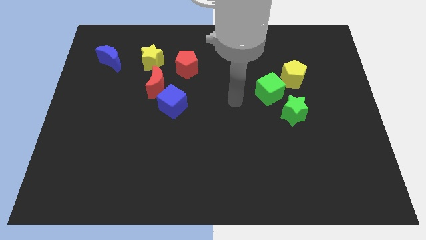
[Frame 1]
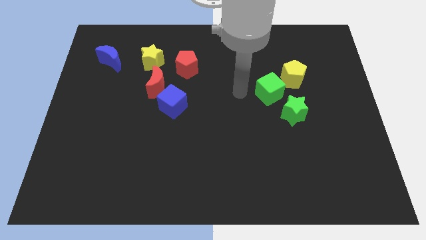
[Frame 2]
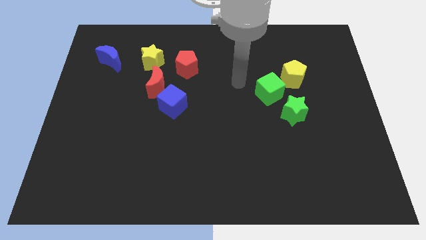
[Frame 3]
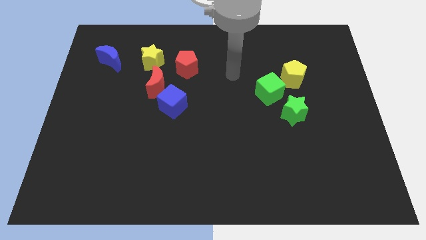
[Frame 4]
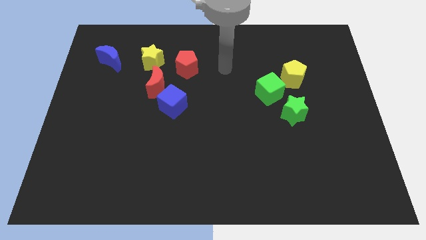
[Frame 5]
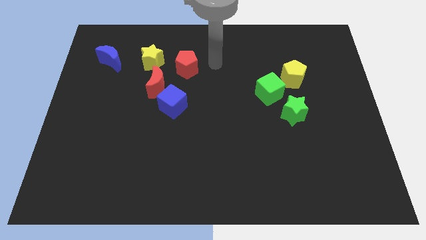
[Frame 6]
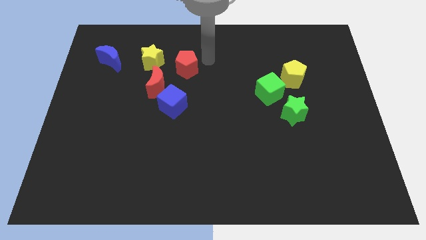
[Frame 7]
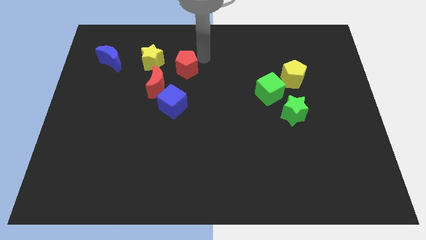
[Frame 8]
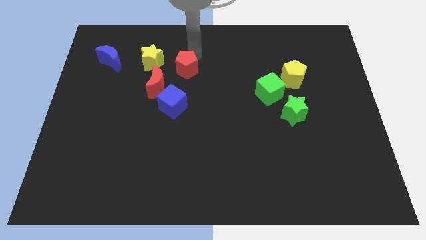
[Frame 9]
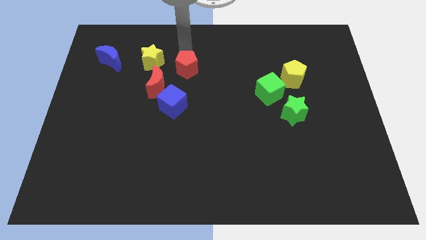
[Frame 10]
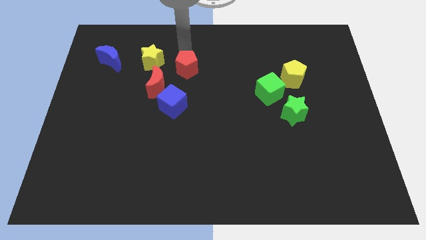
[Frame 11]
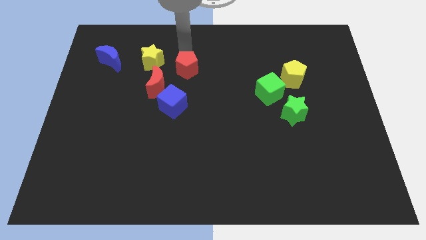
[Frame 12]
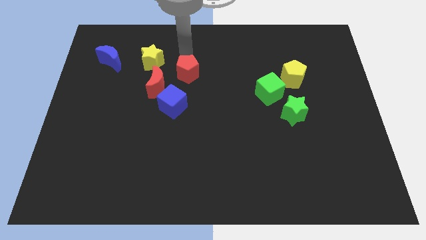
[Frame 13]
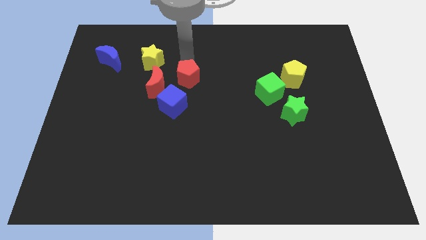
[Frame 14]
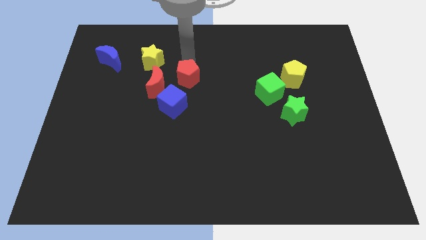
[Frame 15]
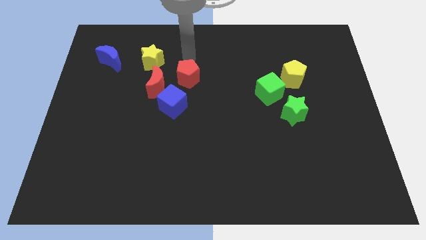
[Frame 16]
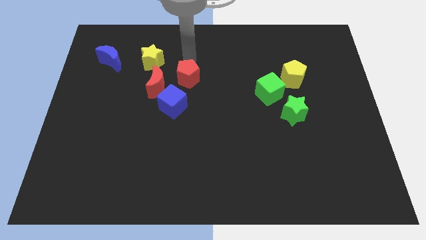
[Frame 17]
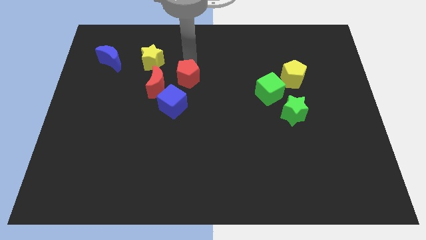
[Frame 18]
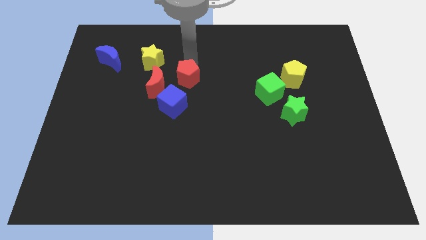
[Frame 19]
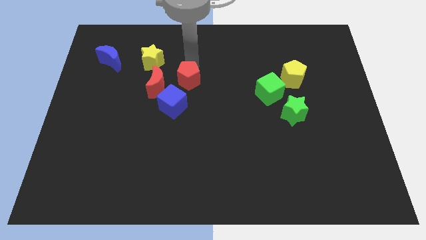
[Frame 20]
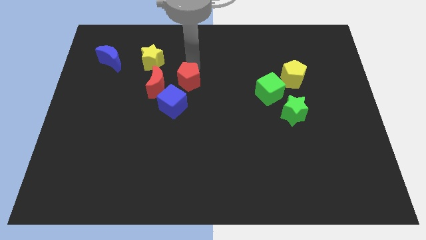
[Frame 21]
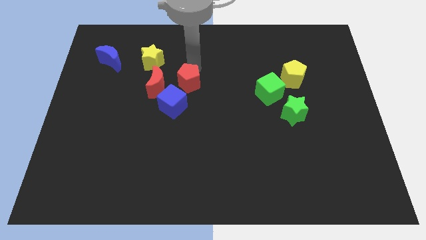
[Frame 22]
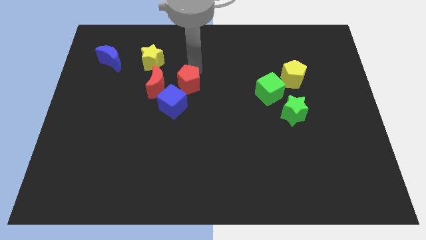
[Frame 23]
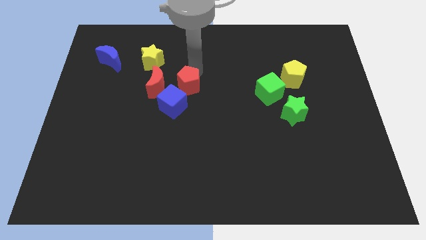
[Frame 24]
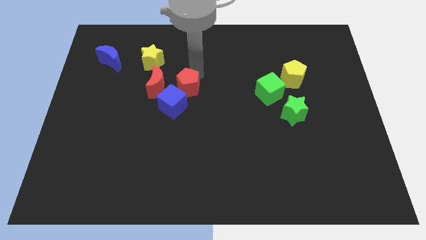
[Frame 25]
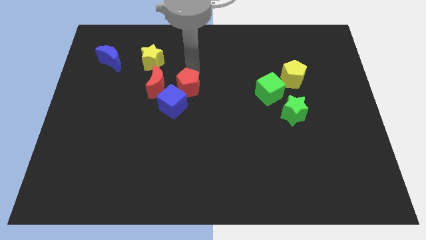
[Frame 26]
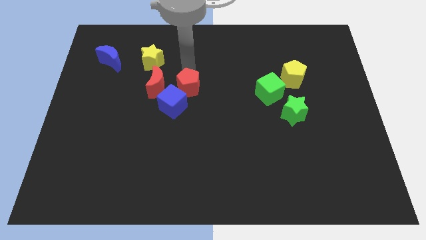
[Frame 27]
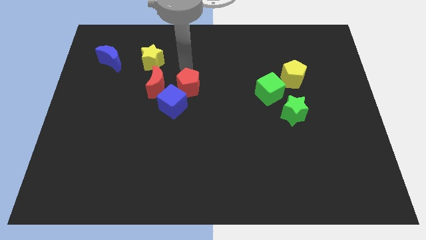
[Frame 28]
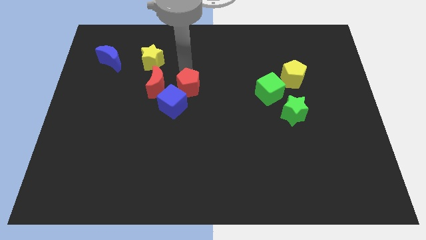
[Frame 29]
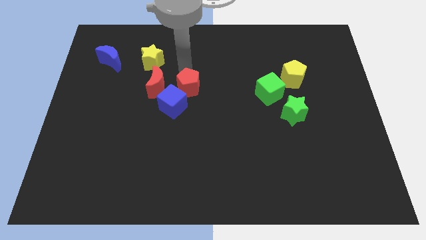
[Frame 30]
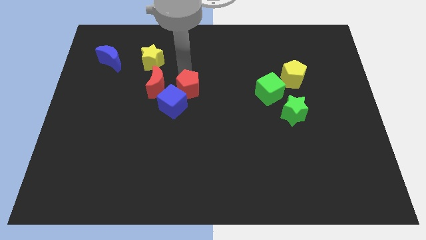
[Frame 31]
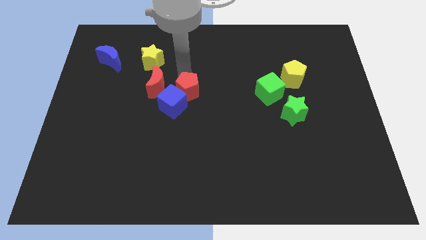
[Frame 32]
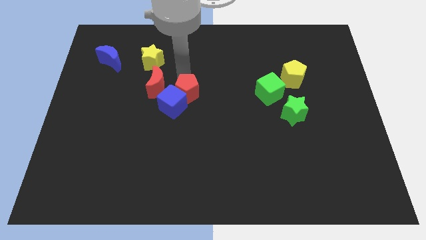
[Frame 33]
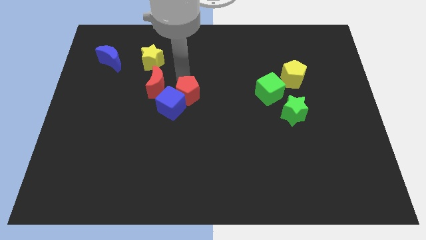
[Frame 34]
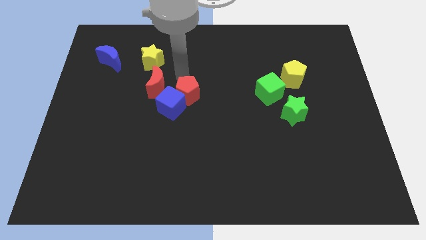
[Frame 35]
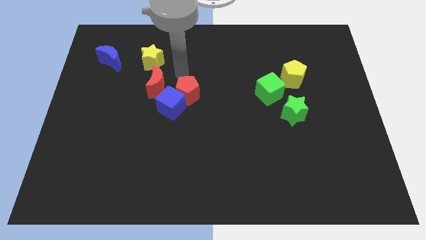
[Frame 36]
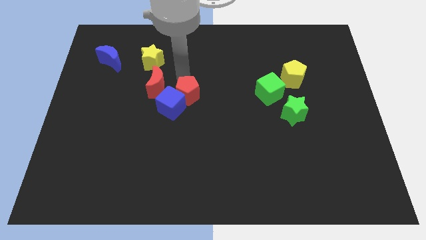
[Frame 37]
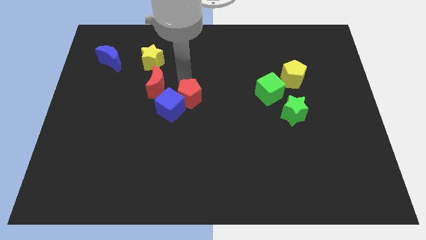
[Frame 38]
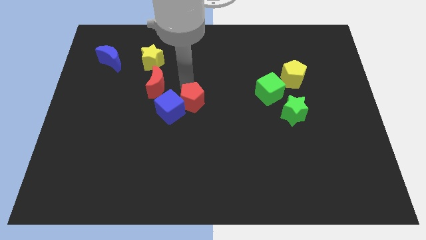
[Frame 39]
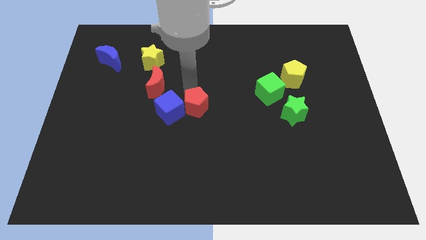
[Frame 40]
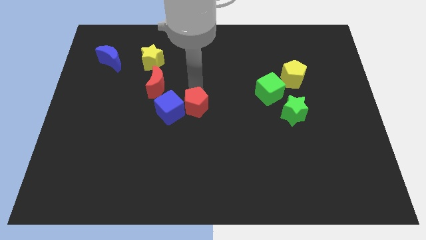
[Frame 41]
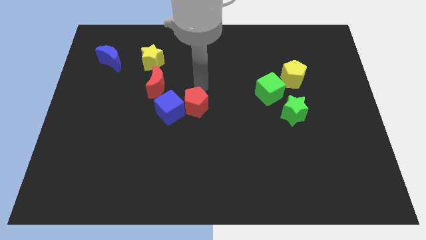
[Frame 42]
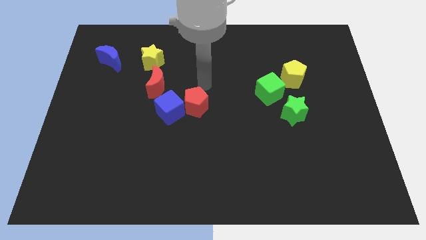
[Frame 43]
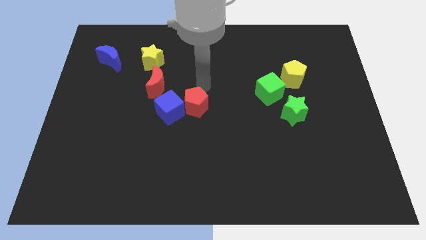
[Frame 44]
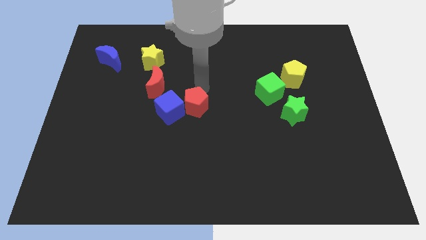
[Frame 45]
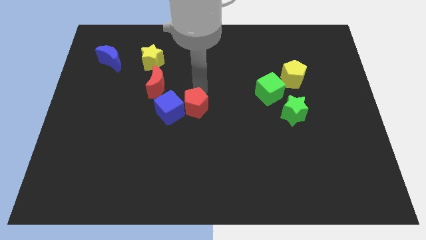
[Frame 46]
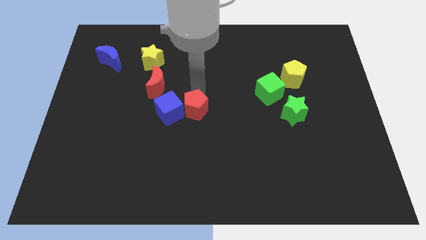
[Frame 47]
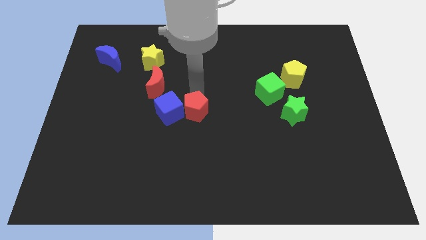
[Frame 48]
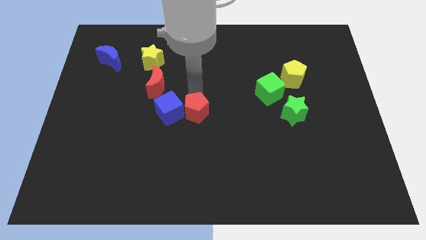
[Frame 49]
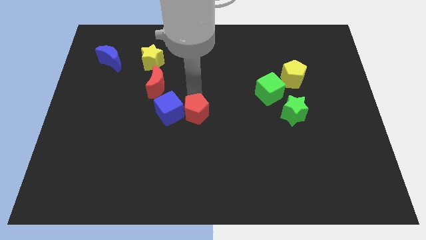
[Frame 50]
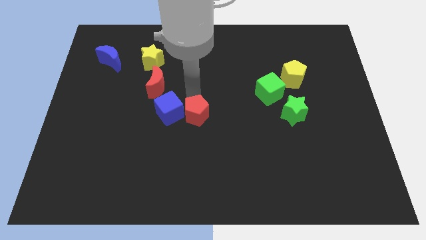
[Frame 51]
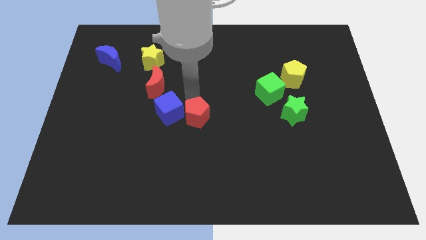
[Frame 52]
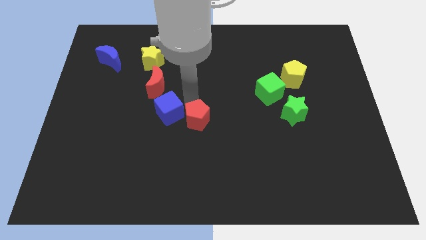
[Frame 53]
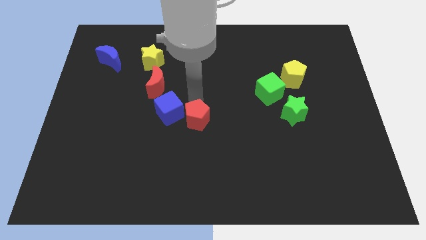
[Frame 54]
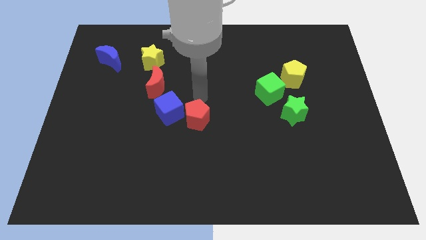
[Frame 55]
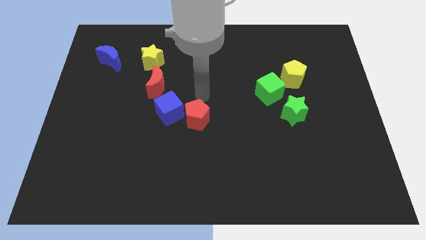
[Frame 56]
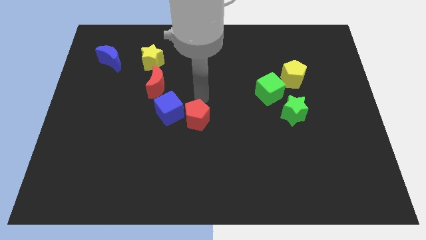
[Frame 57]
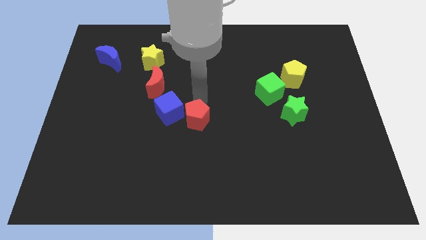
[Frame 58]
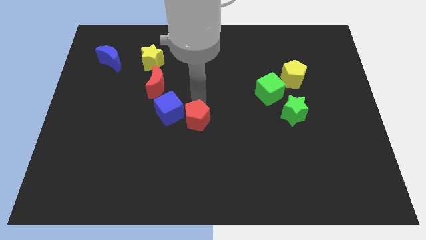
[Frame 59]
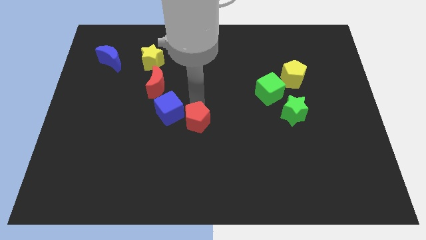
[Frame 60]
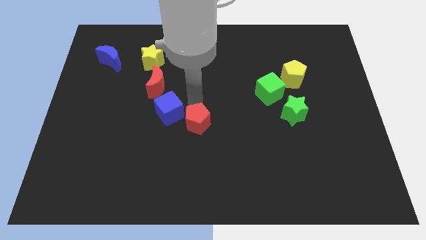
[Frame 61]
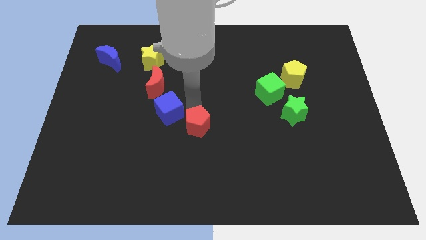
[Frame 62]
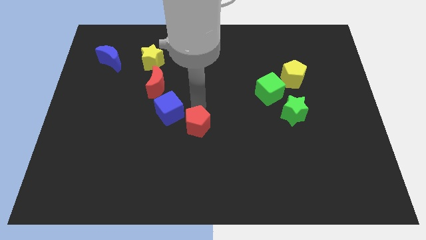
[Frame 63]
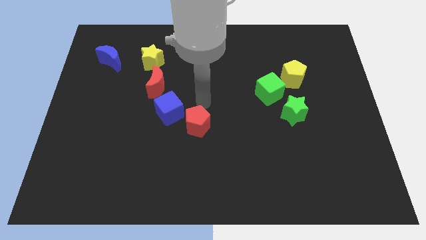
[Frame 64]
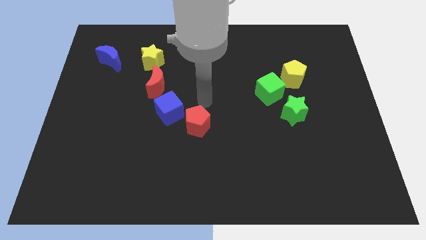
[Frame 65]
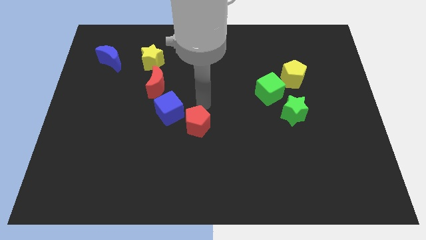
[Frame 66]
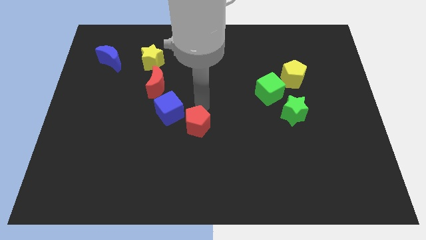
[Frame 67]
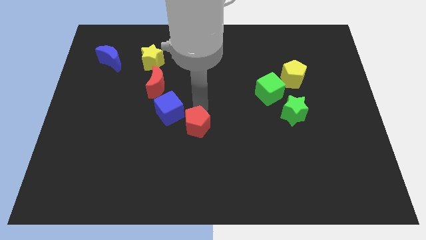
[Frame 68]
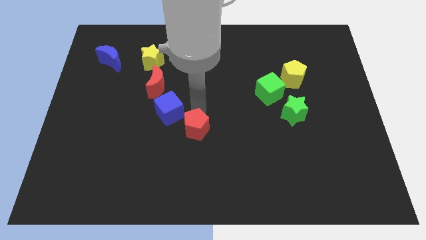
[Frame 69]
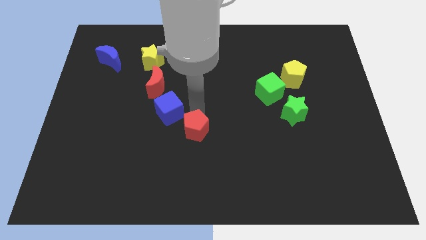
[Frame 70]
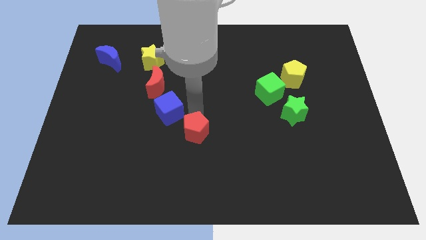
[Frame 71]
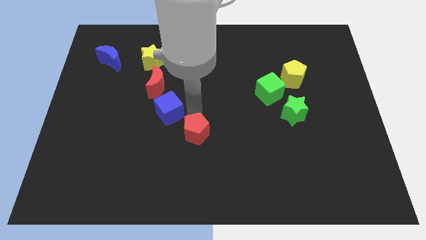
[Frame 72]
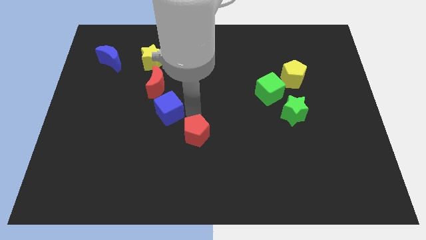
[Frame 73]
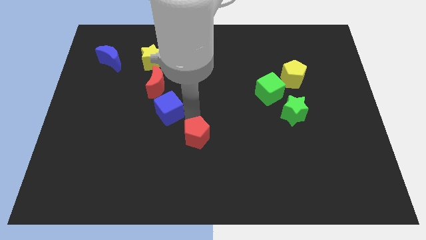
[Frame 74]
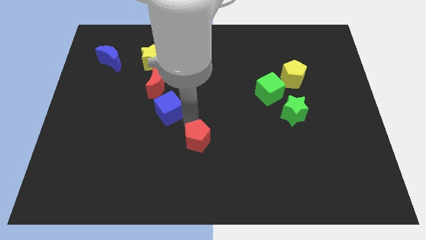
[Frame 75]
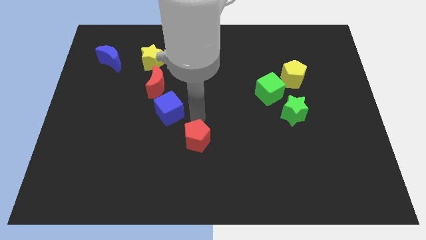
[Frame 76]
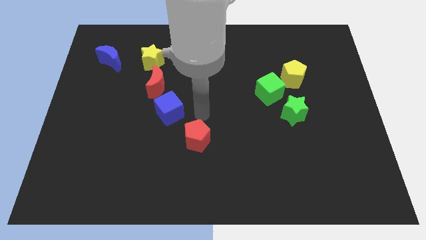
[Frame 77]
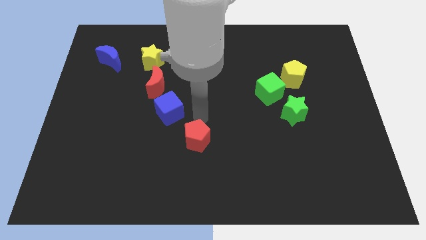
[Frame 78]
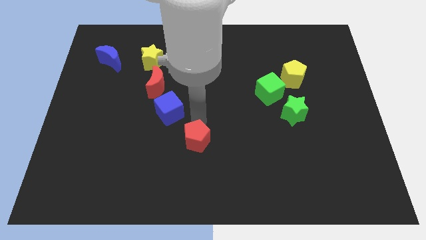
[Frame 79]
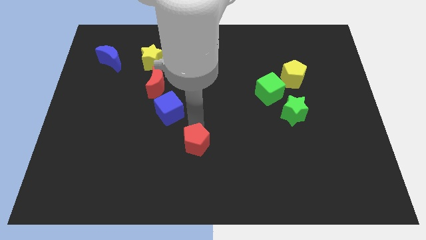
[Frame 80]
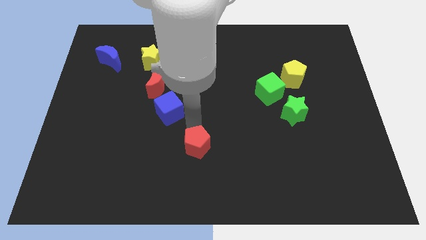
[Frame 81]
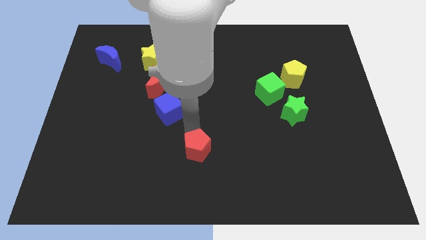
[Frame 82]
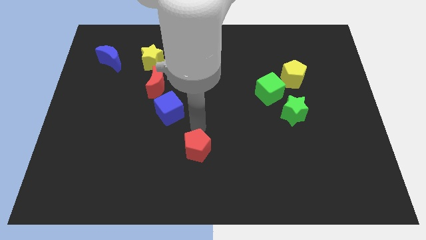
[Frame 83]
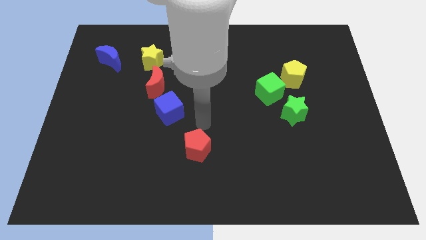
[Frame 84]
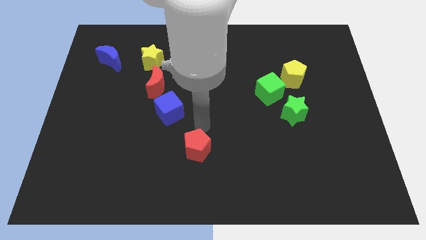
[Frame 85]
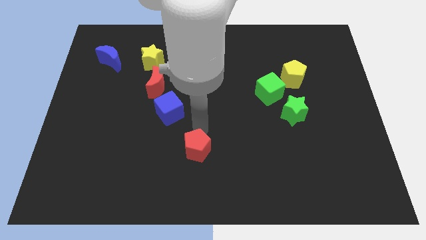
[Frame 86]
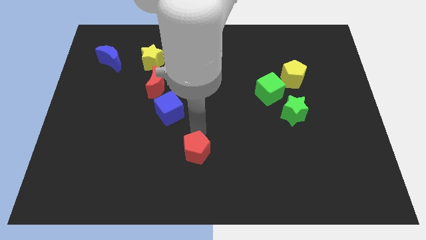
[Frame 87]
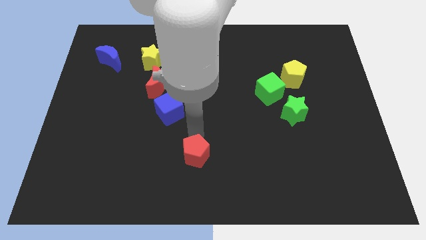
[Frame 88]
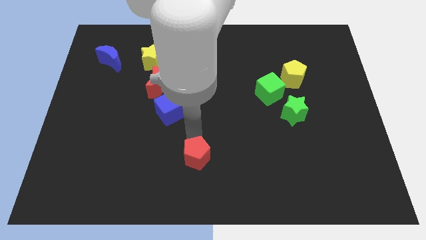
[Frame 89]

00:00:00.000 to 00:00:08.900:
move the red pentagon to the bottom
